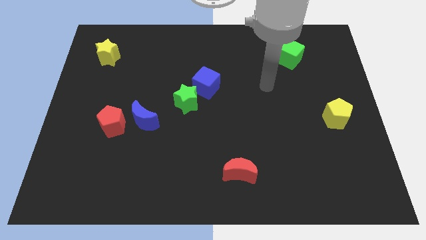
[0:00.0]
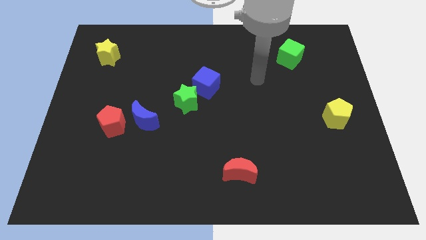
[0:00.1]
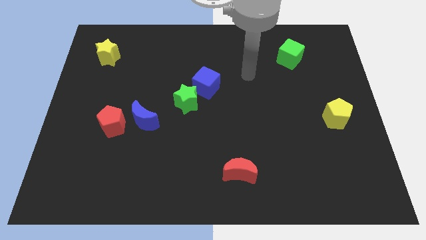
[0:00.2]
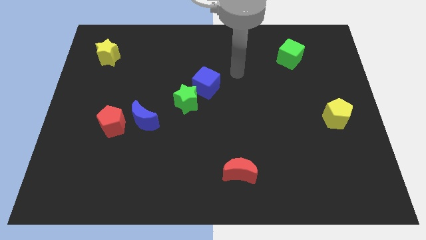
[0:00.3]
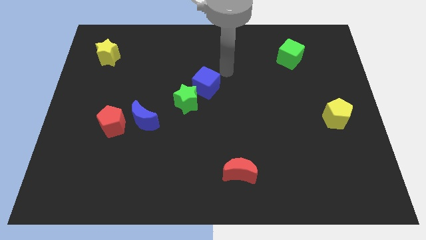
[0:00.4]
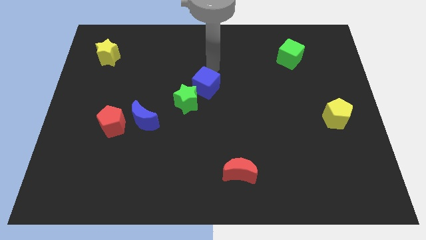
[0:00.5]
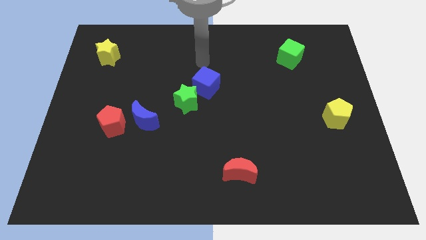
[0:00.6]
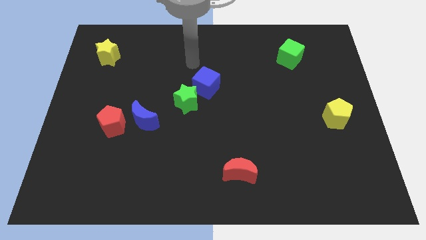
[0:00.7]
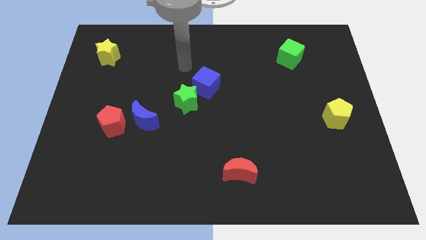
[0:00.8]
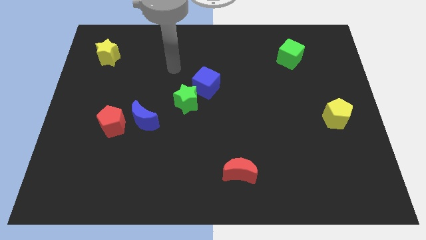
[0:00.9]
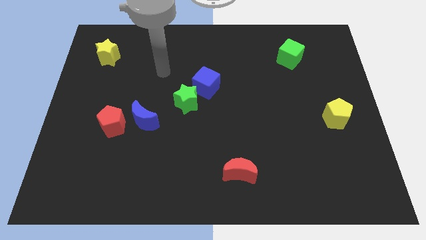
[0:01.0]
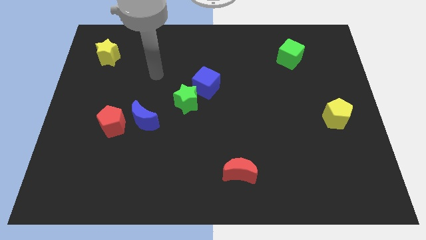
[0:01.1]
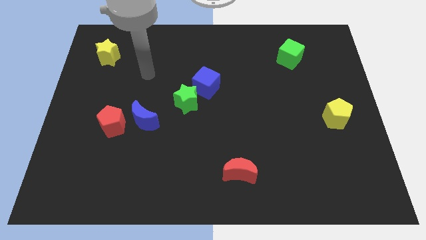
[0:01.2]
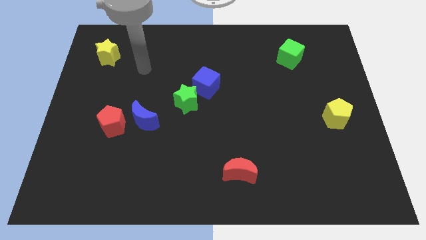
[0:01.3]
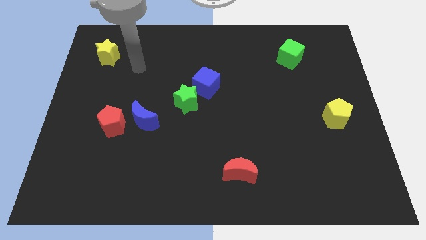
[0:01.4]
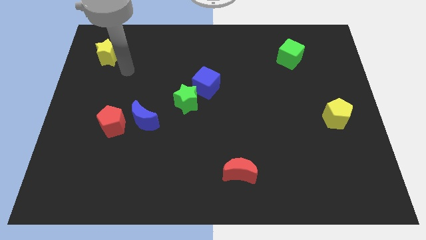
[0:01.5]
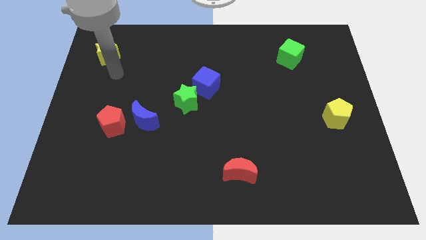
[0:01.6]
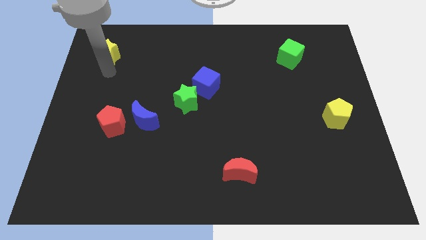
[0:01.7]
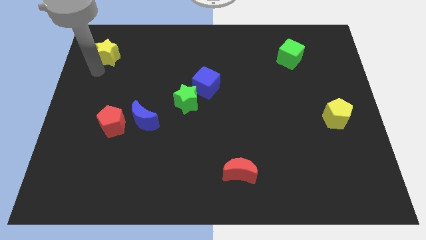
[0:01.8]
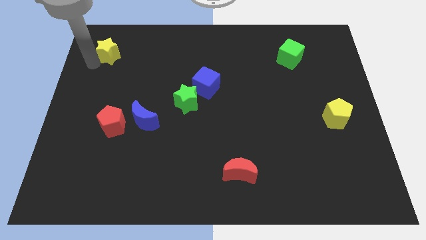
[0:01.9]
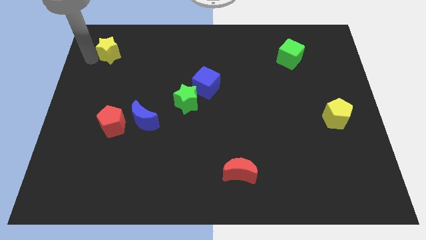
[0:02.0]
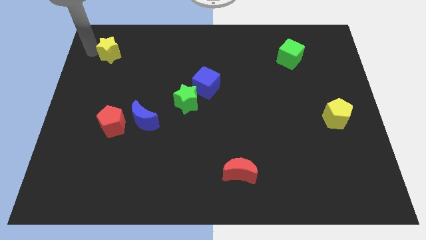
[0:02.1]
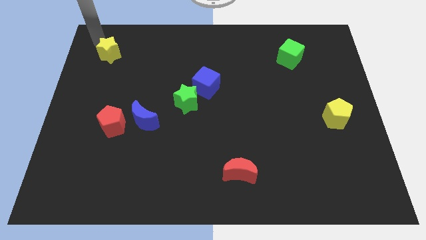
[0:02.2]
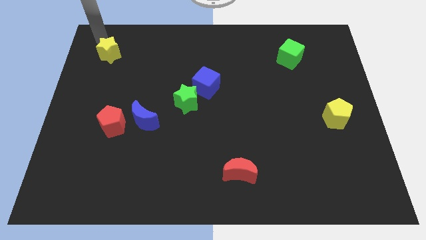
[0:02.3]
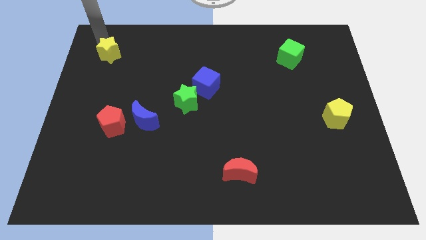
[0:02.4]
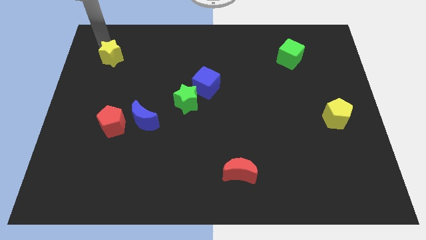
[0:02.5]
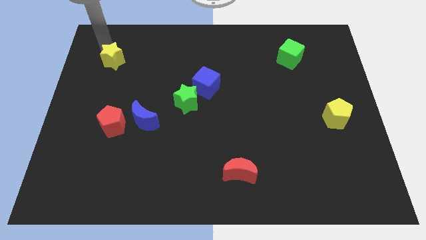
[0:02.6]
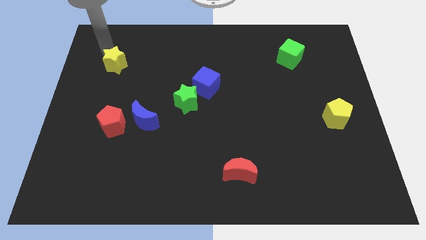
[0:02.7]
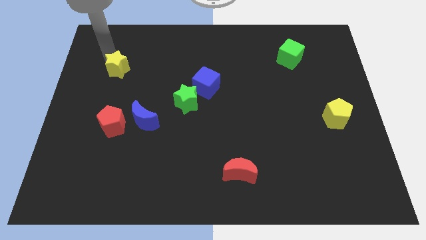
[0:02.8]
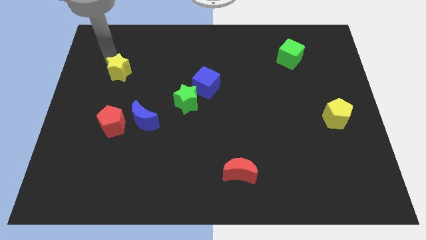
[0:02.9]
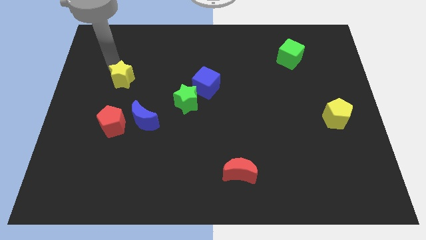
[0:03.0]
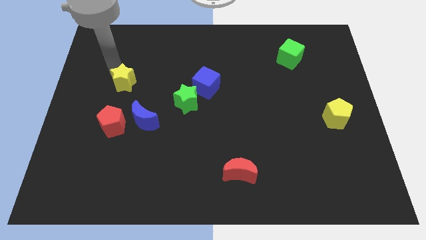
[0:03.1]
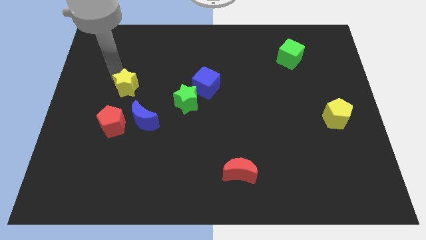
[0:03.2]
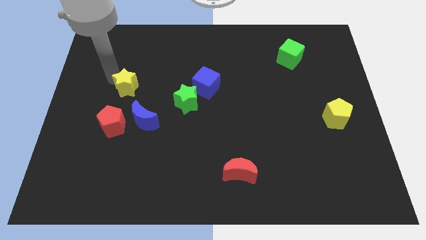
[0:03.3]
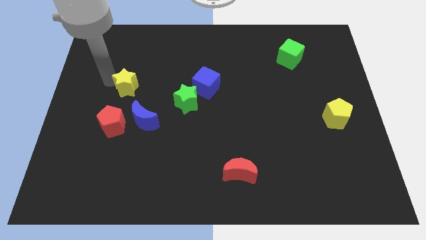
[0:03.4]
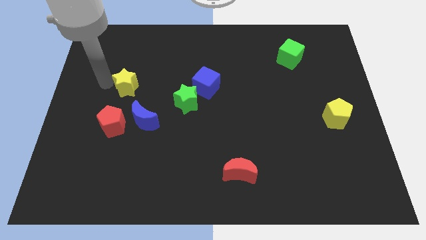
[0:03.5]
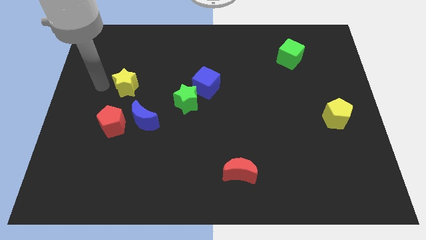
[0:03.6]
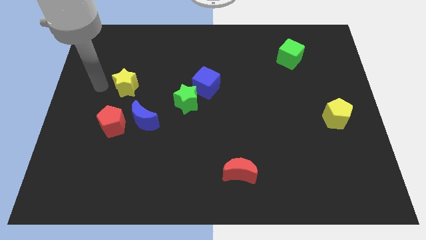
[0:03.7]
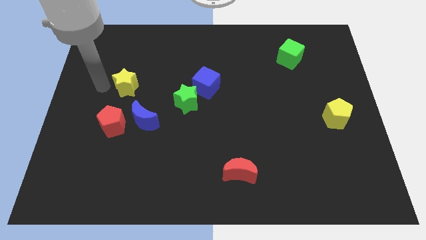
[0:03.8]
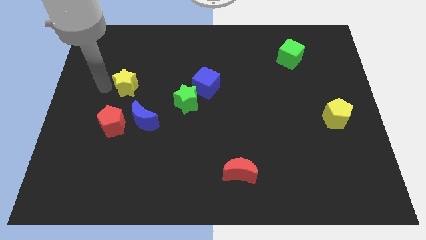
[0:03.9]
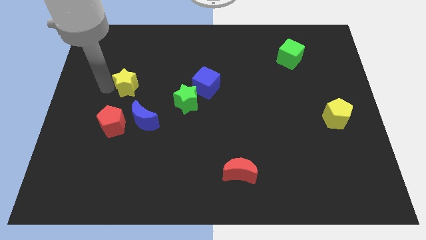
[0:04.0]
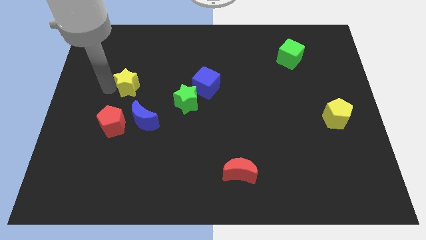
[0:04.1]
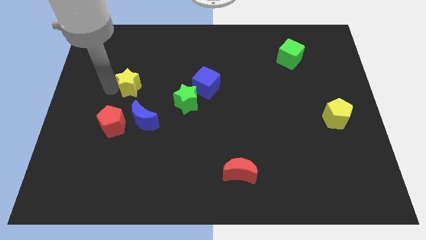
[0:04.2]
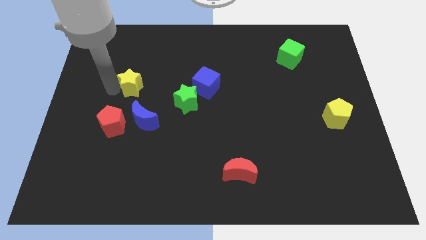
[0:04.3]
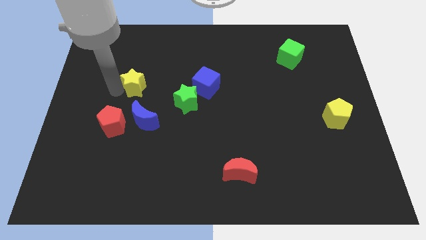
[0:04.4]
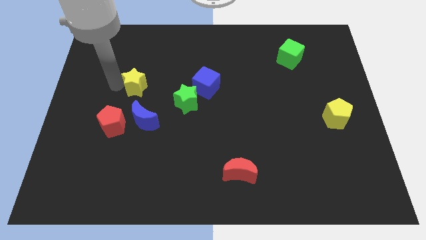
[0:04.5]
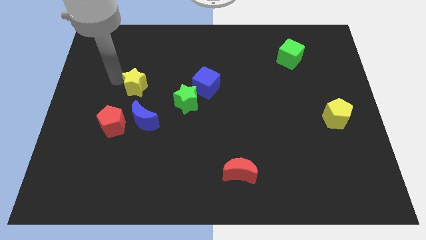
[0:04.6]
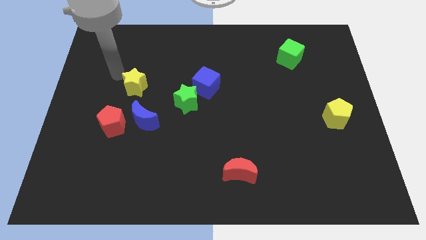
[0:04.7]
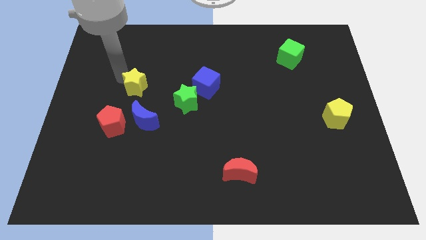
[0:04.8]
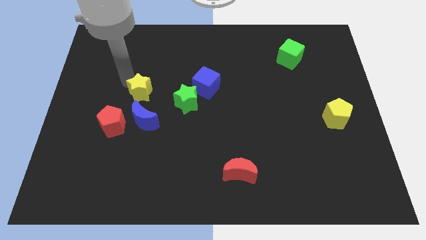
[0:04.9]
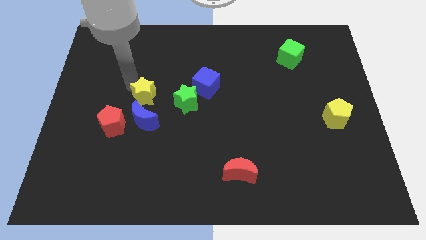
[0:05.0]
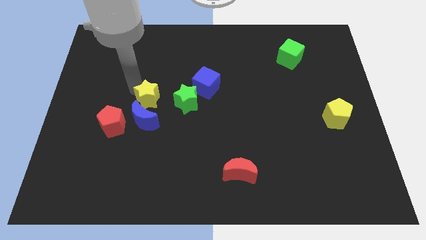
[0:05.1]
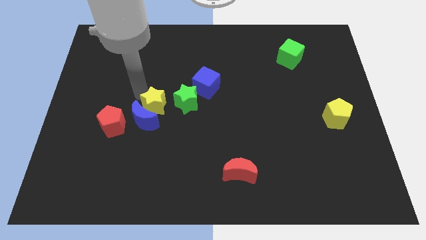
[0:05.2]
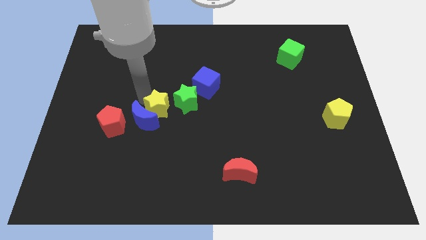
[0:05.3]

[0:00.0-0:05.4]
move the yellow star right of the blue moon

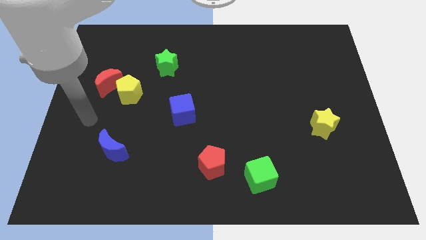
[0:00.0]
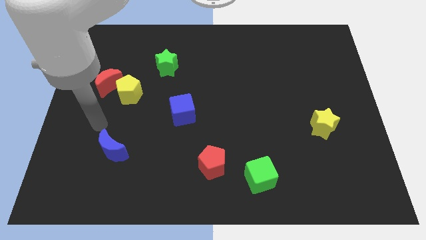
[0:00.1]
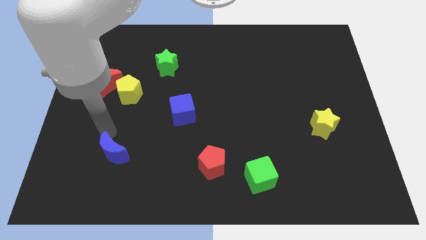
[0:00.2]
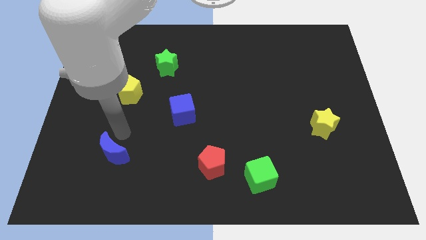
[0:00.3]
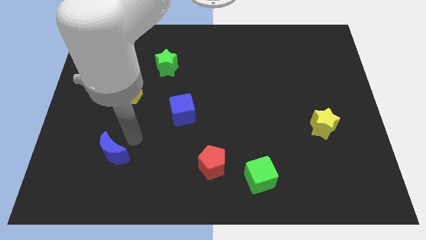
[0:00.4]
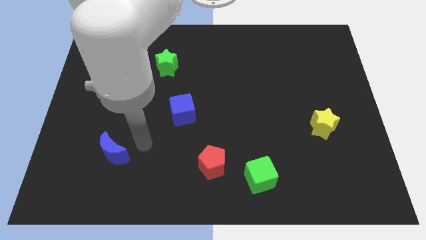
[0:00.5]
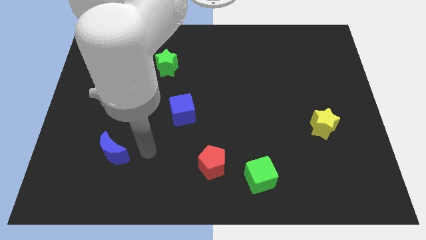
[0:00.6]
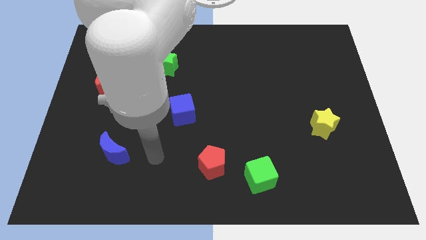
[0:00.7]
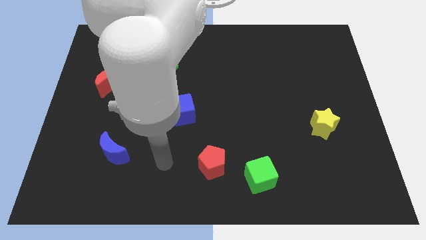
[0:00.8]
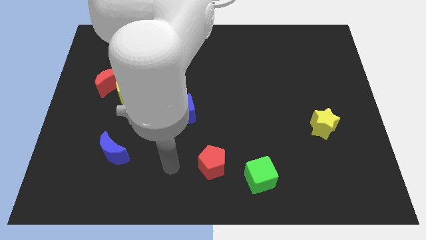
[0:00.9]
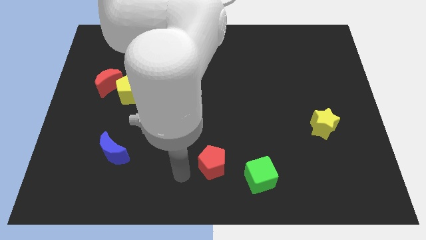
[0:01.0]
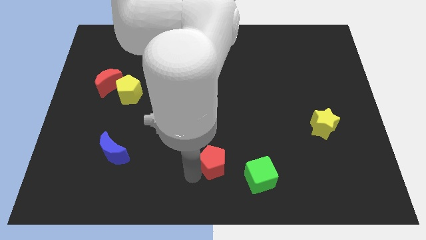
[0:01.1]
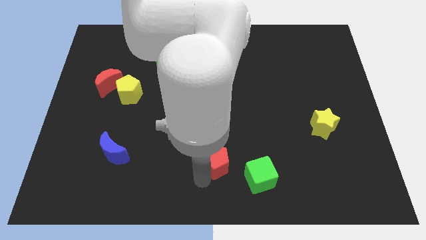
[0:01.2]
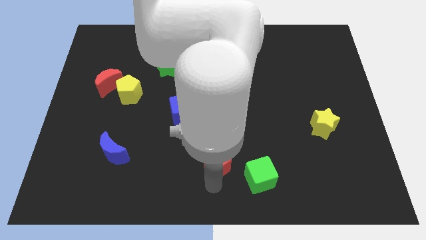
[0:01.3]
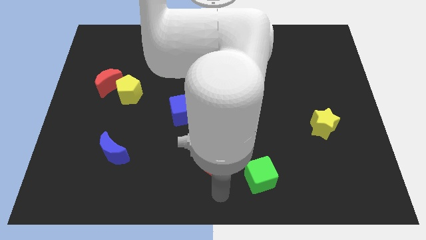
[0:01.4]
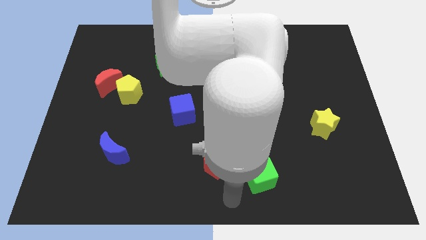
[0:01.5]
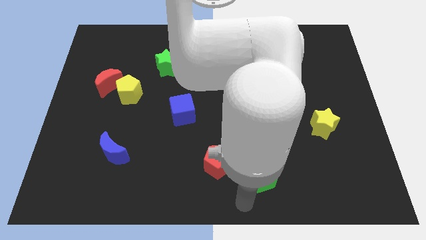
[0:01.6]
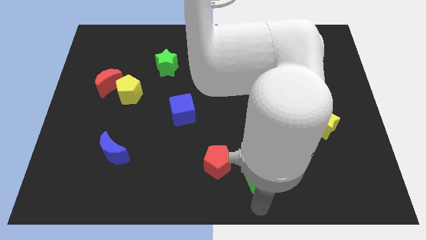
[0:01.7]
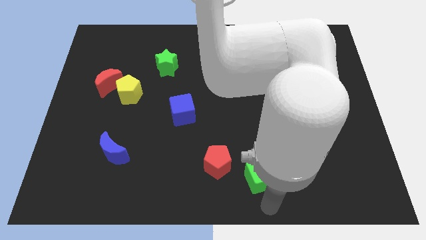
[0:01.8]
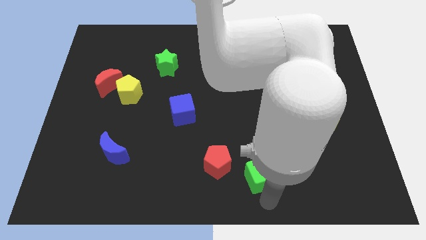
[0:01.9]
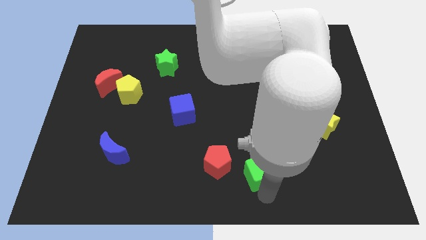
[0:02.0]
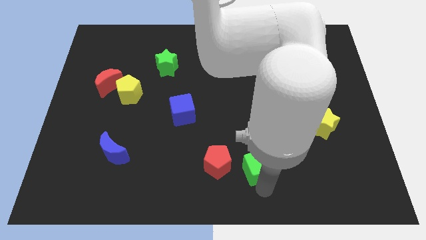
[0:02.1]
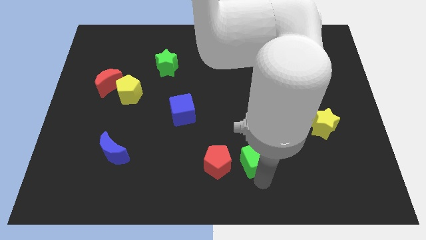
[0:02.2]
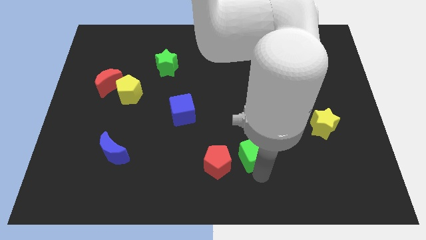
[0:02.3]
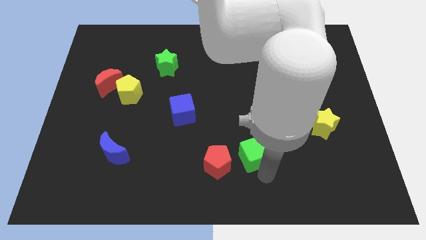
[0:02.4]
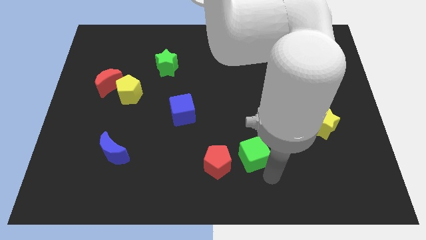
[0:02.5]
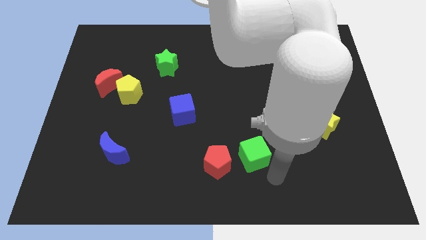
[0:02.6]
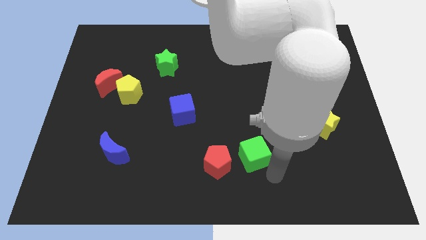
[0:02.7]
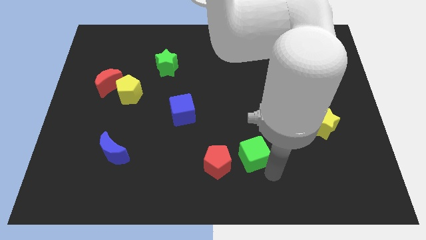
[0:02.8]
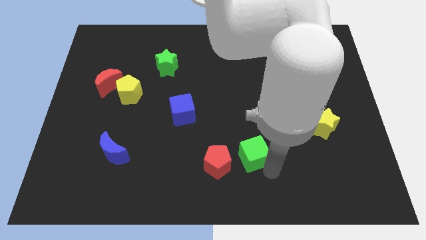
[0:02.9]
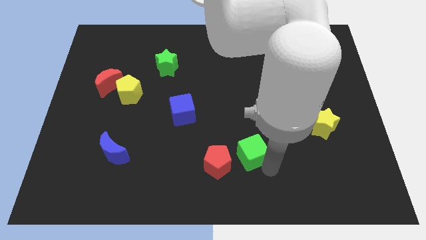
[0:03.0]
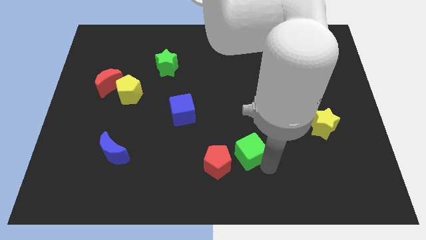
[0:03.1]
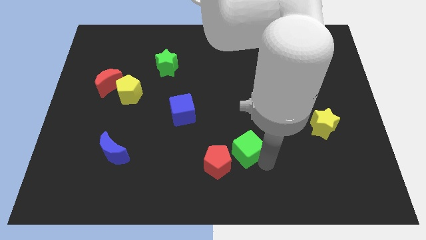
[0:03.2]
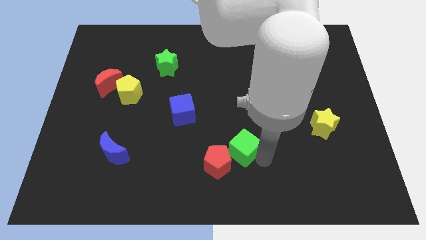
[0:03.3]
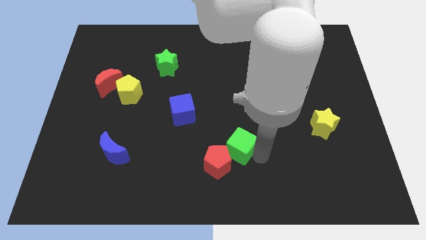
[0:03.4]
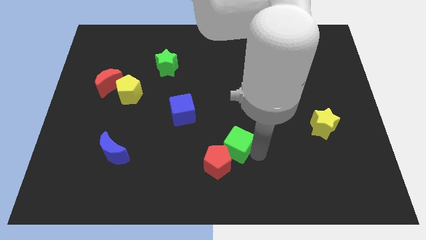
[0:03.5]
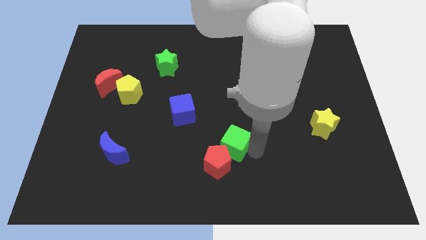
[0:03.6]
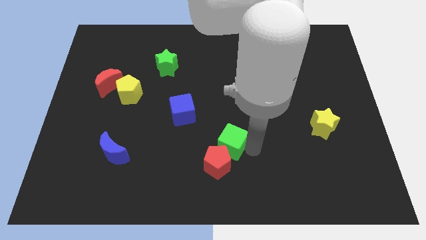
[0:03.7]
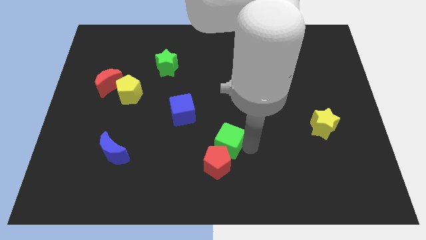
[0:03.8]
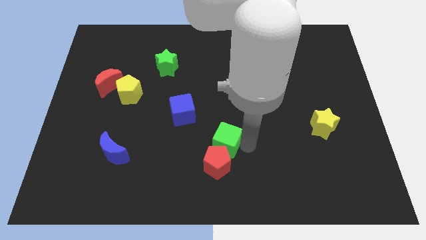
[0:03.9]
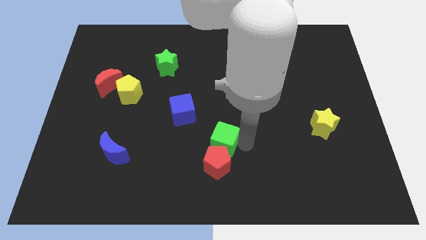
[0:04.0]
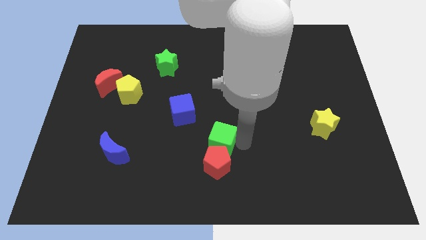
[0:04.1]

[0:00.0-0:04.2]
move the green cube to the top left side of the red pentagon
